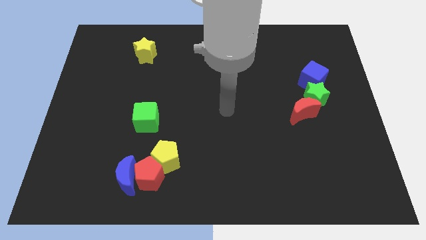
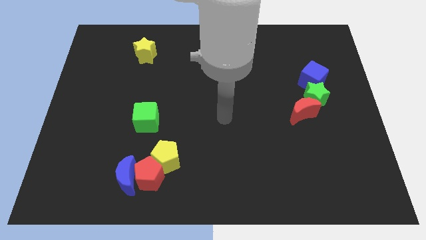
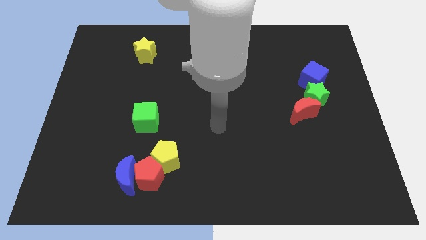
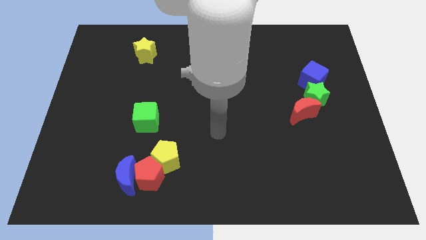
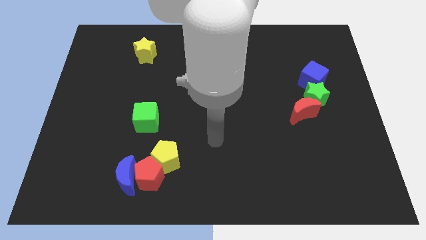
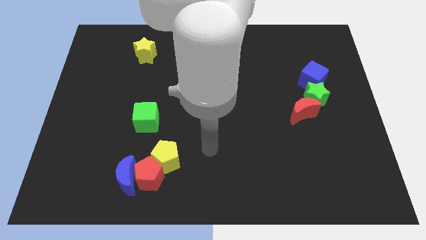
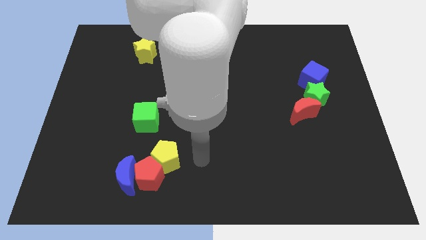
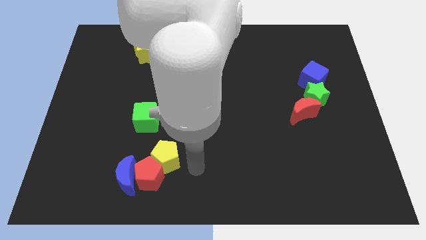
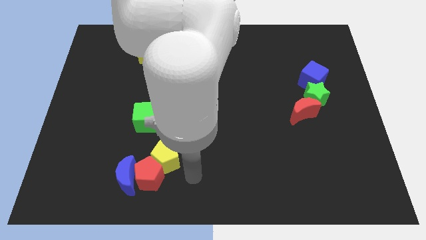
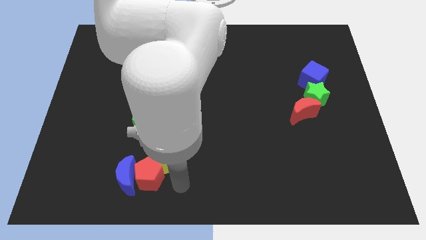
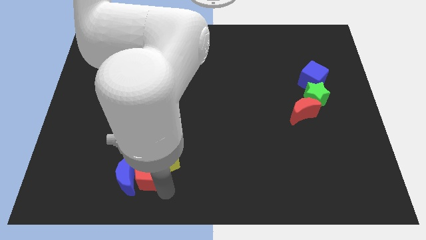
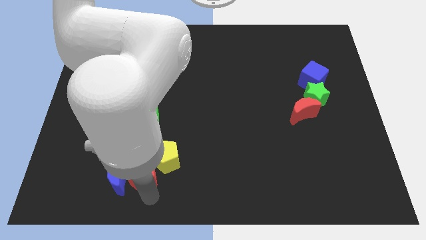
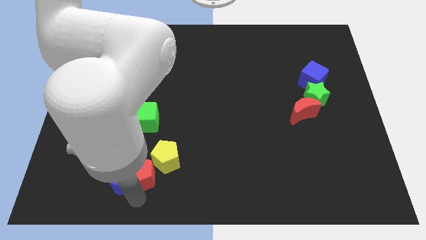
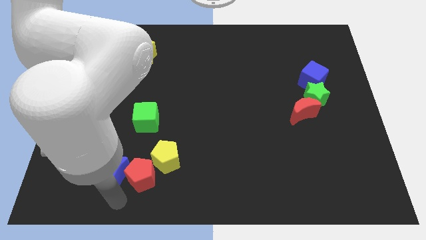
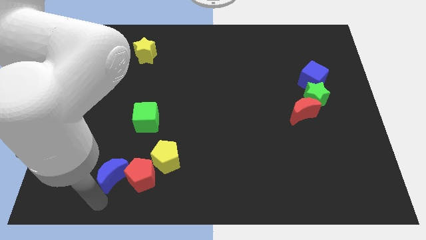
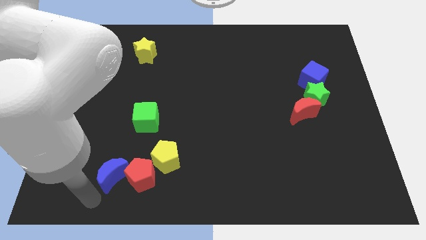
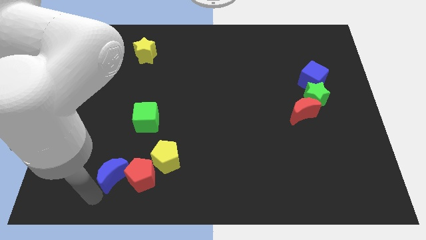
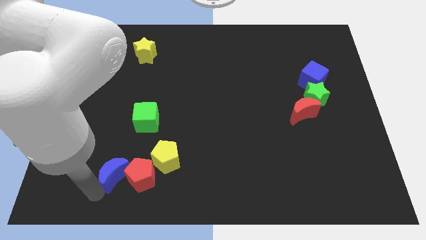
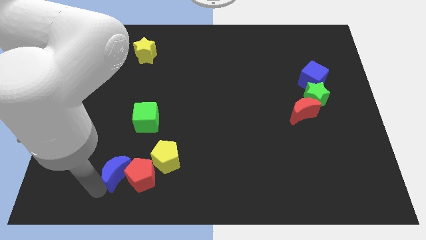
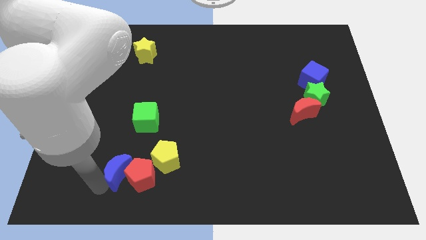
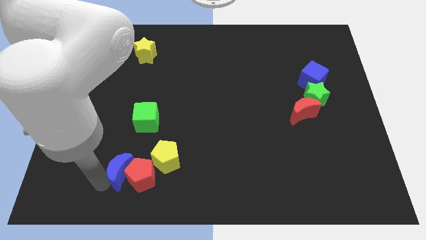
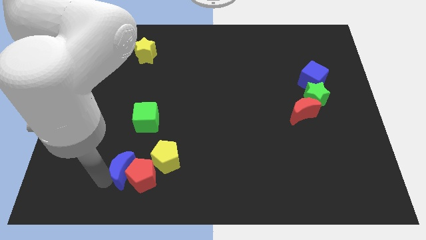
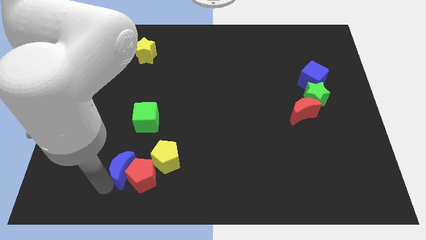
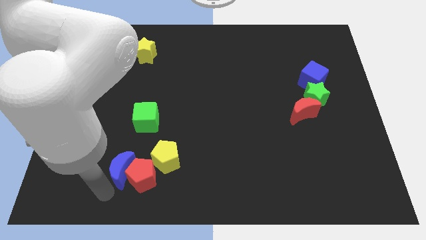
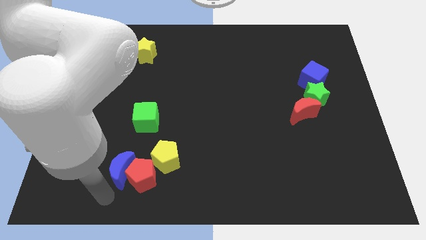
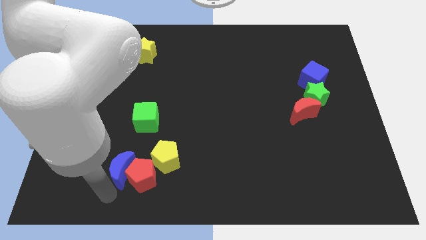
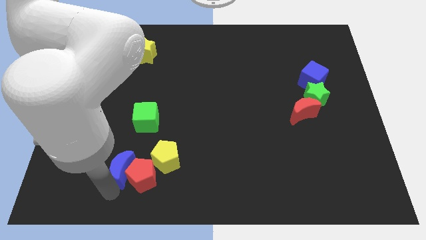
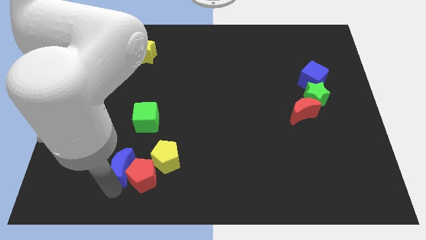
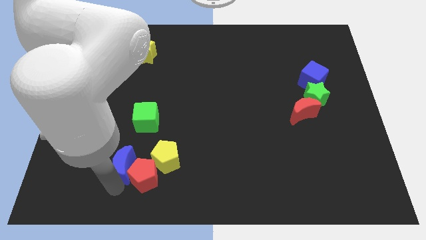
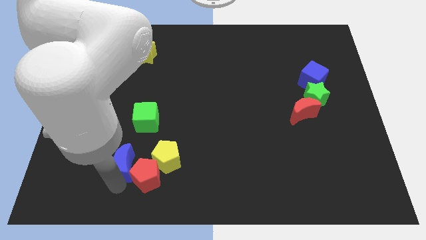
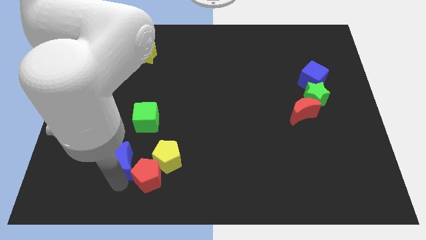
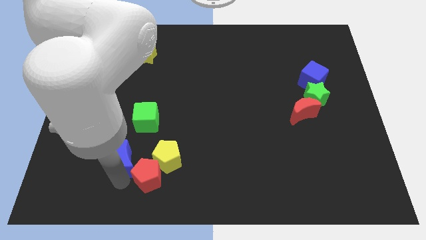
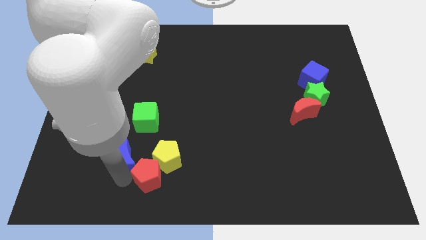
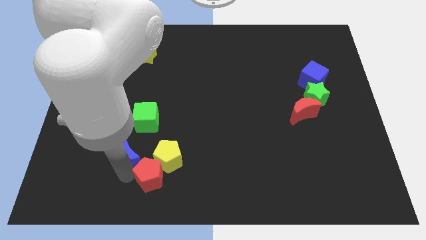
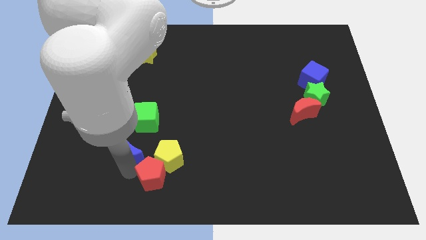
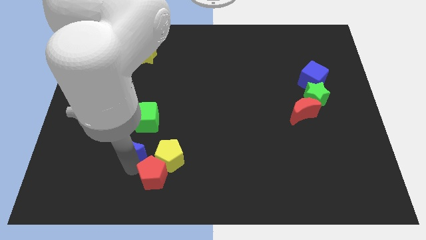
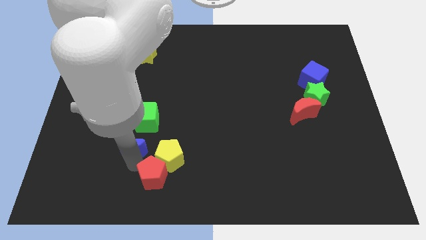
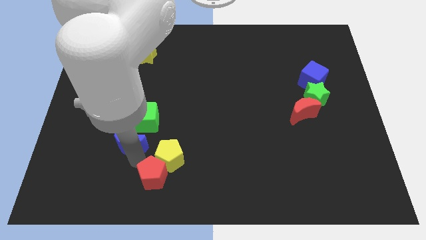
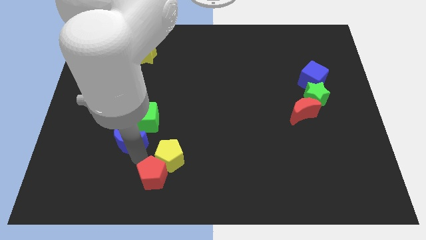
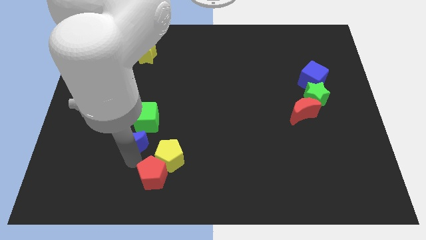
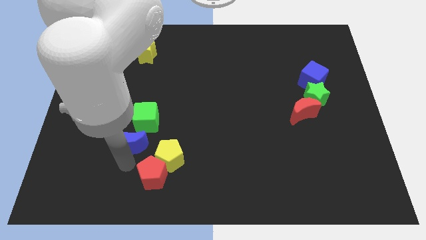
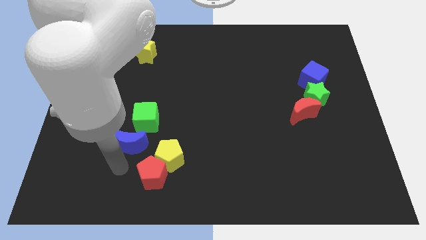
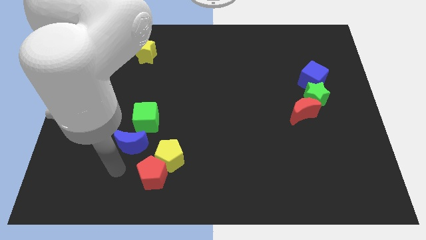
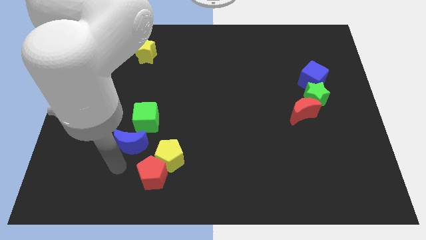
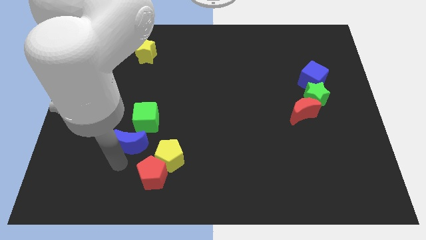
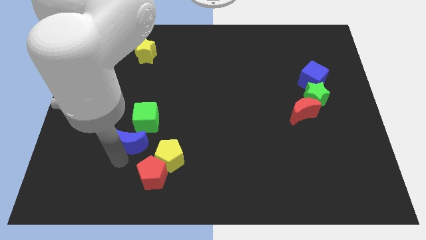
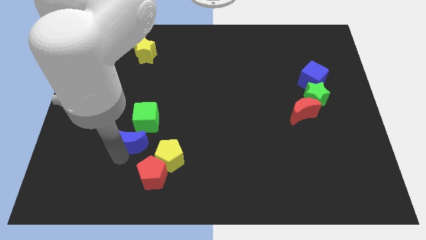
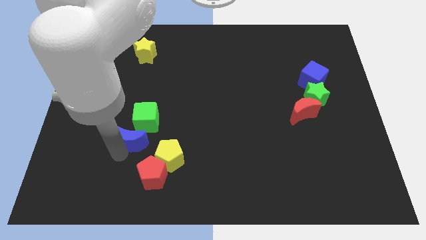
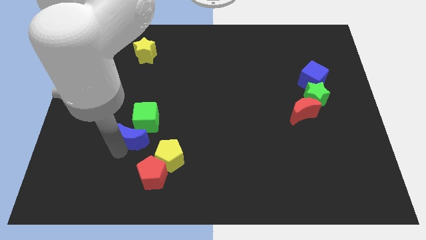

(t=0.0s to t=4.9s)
put the blue moon close to the green cube

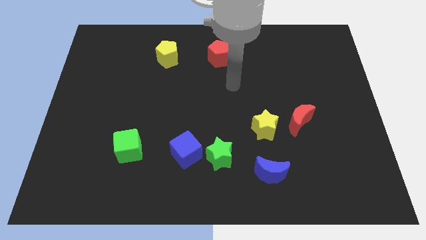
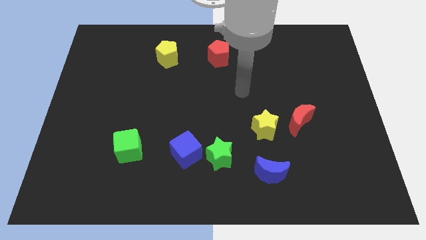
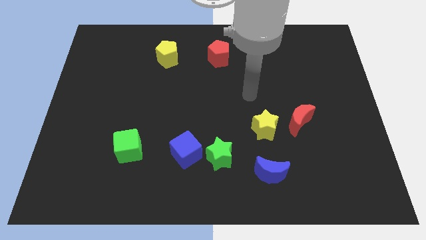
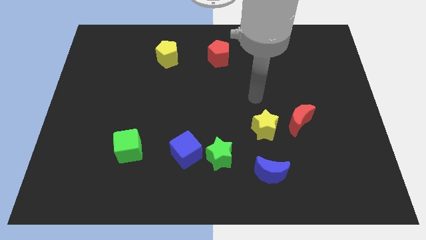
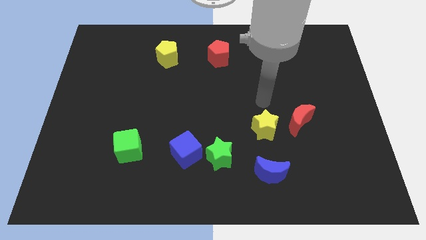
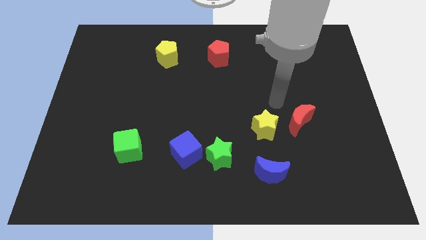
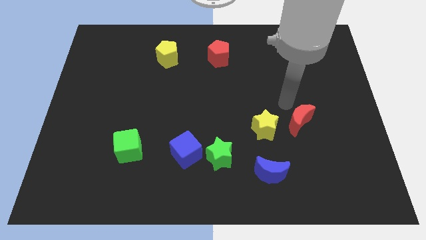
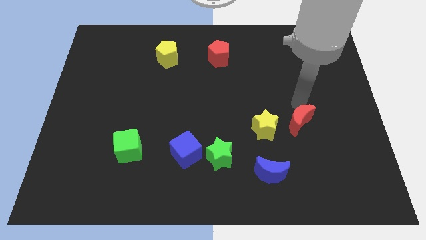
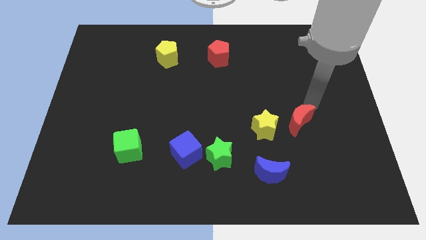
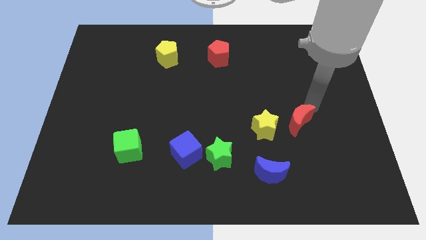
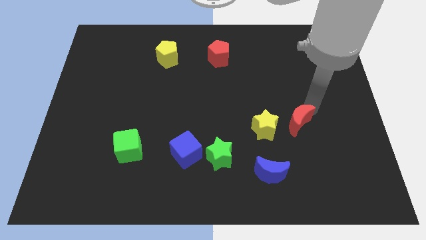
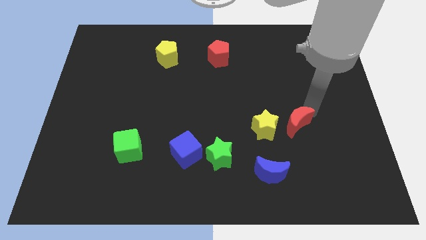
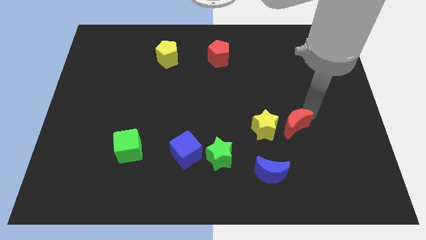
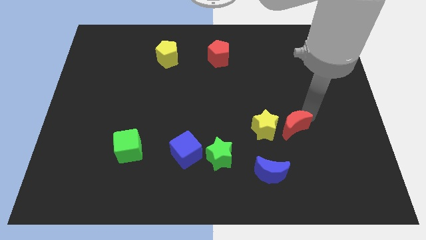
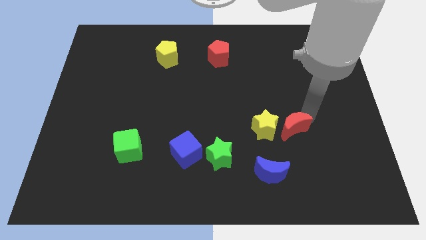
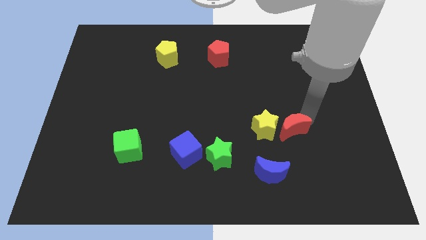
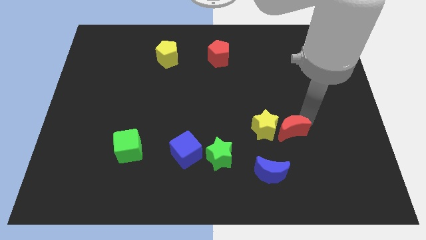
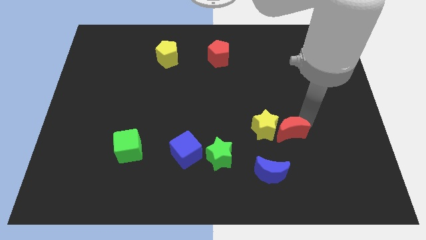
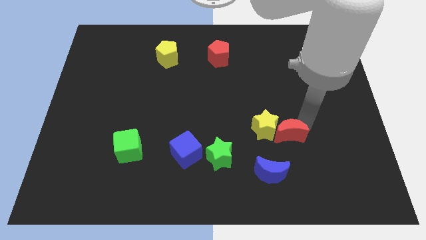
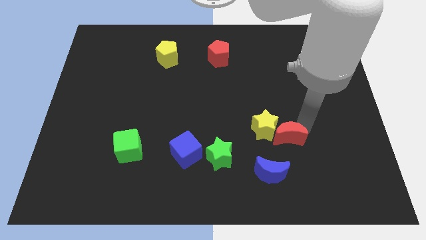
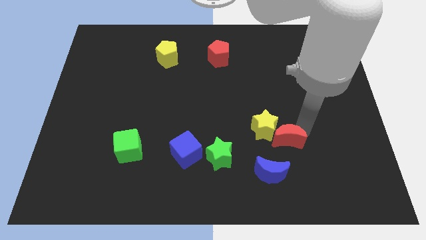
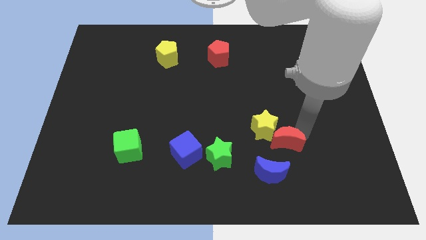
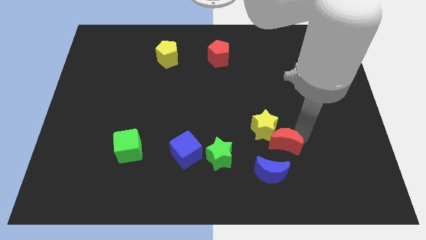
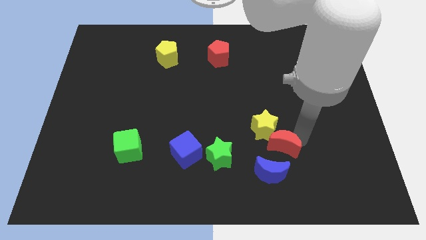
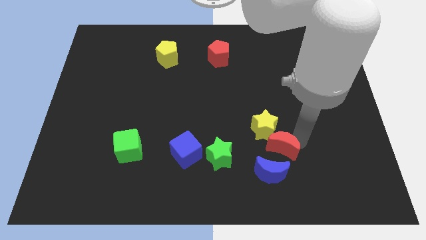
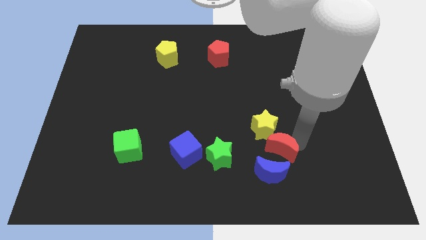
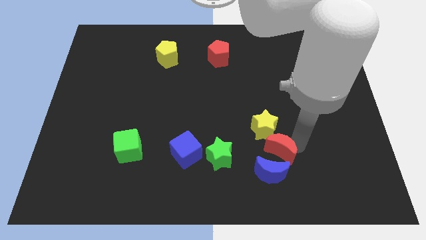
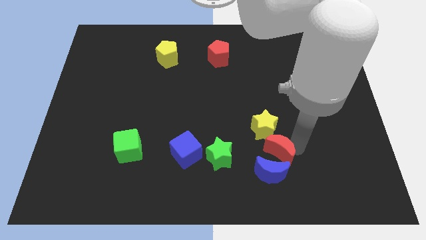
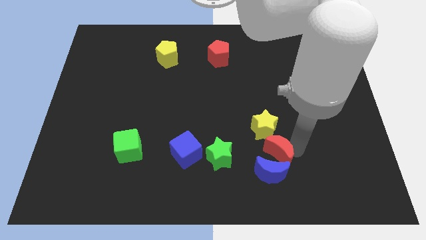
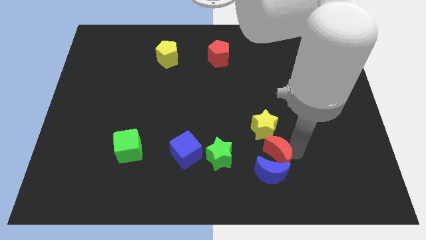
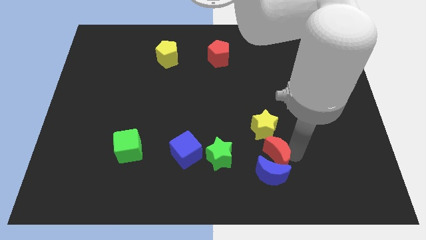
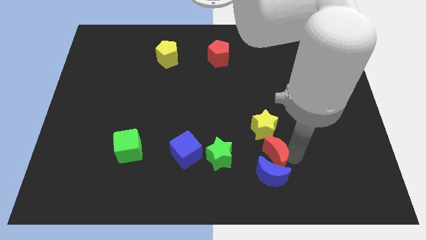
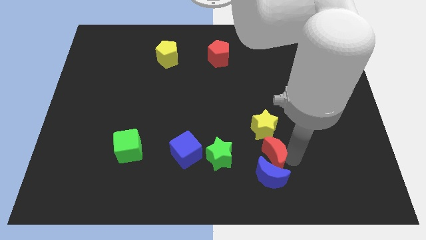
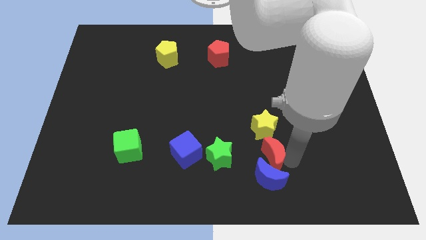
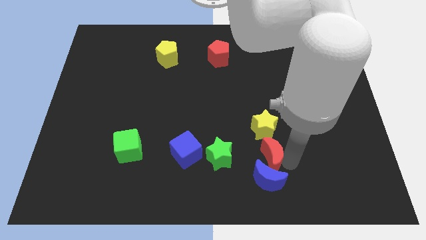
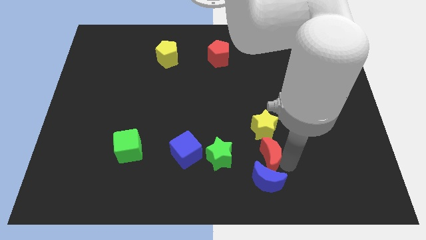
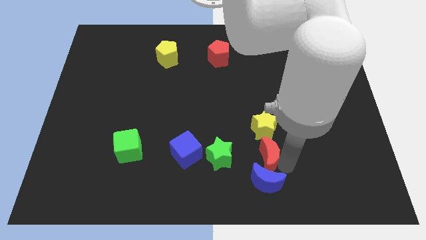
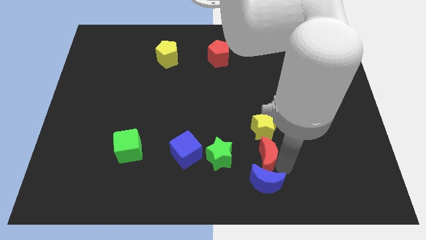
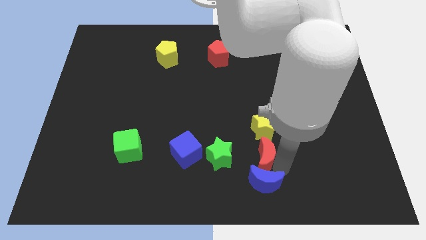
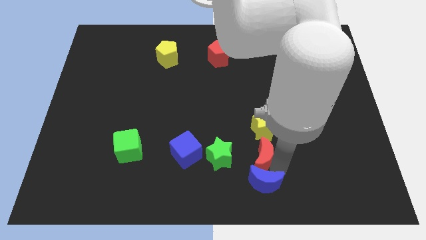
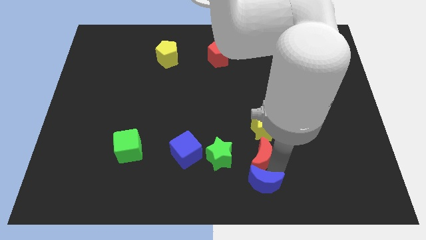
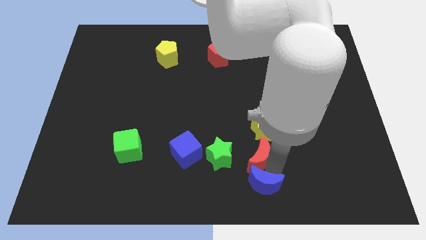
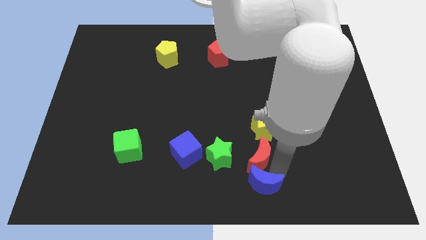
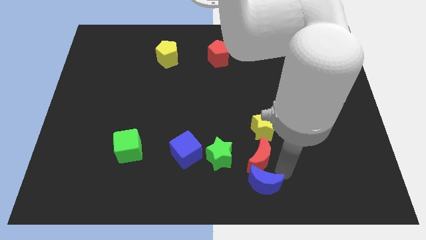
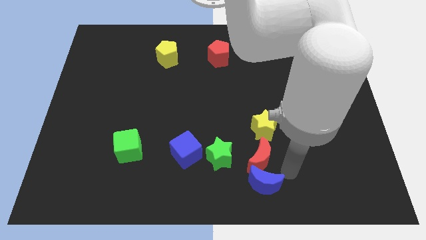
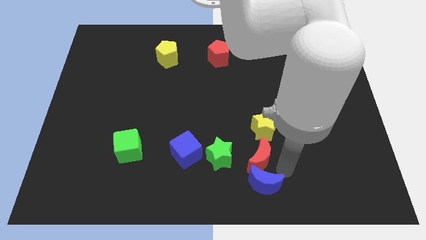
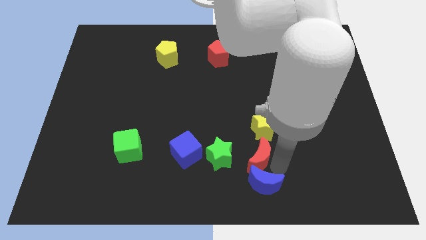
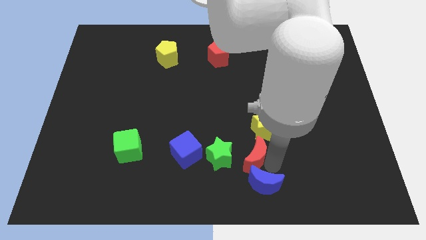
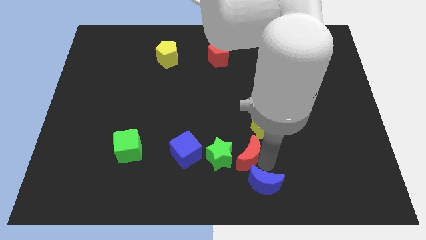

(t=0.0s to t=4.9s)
move the red moon next to the green star
